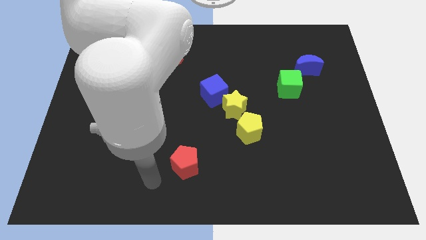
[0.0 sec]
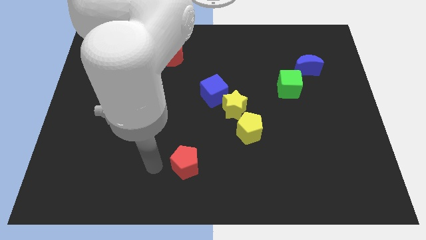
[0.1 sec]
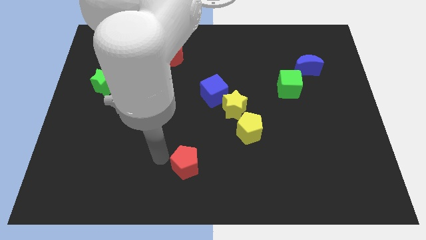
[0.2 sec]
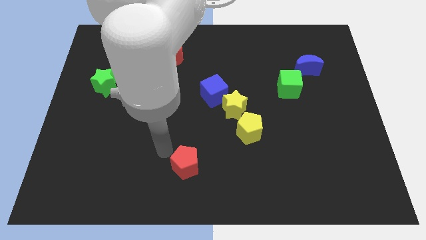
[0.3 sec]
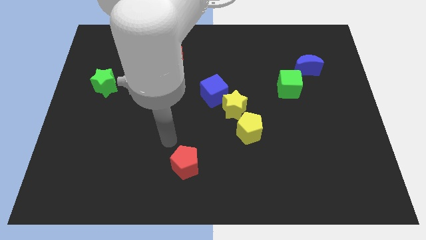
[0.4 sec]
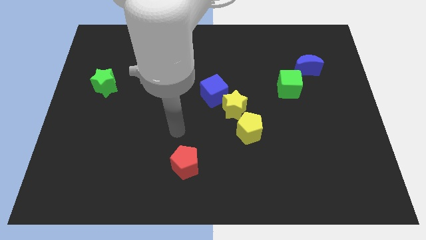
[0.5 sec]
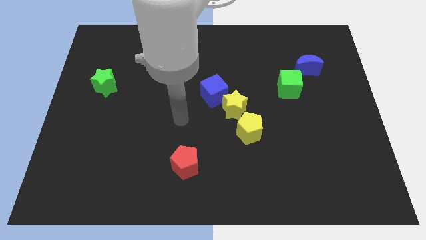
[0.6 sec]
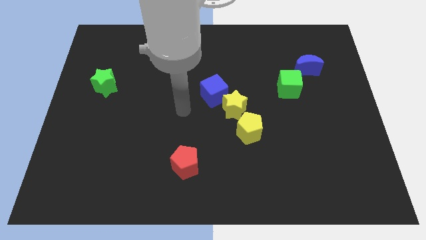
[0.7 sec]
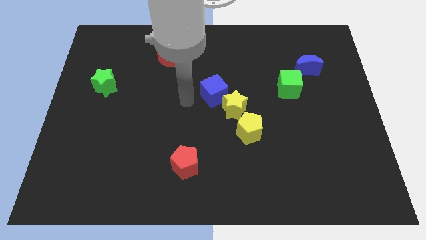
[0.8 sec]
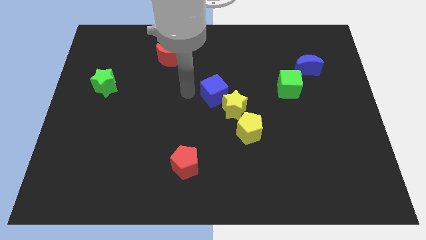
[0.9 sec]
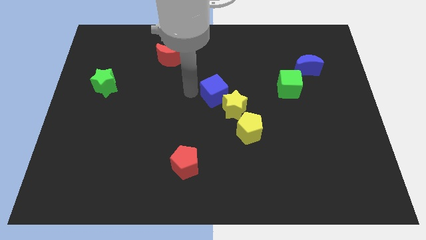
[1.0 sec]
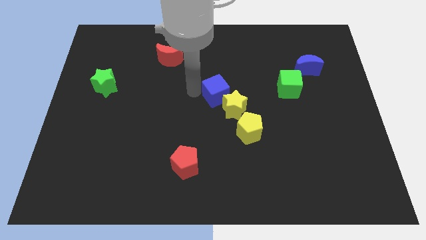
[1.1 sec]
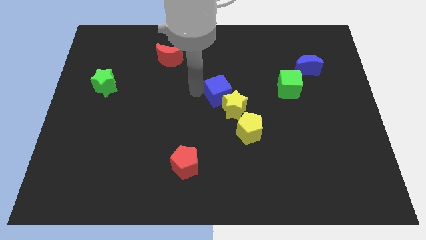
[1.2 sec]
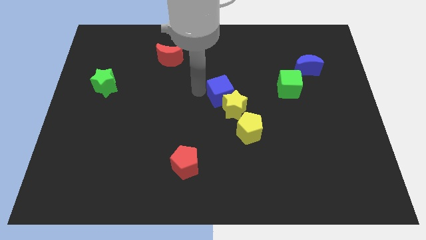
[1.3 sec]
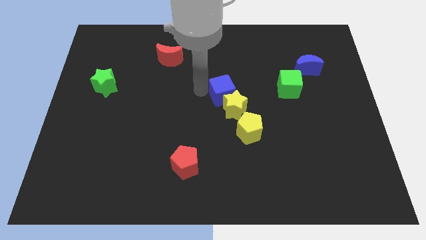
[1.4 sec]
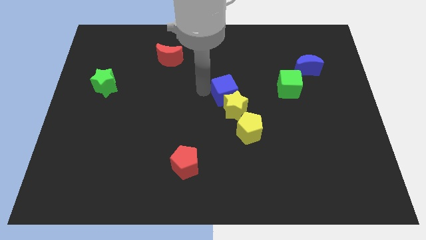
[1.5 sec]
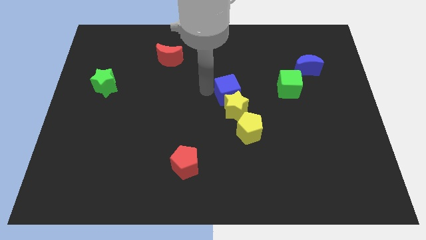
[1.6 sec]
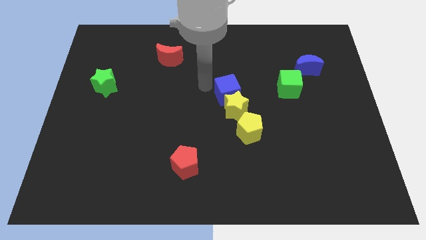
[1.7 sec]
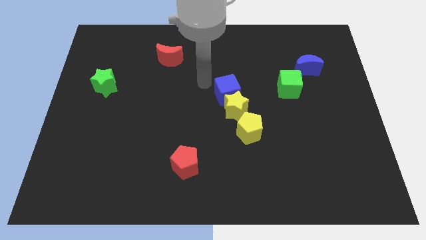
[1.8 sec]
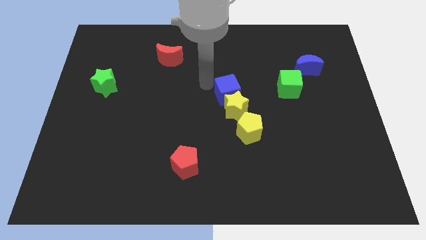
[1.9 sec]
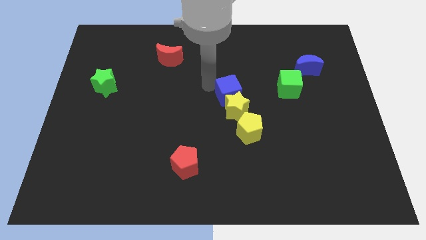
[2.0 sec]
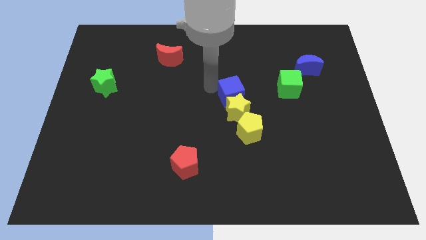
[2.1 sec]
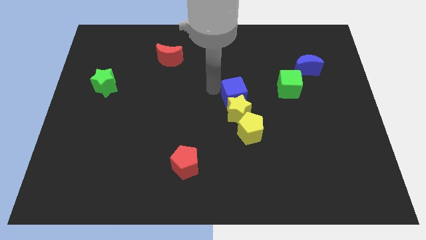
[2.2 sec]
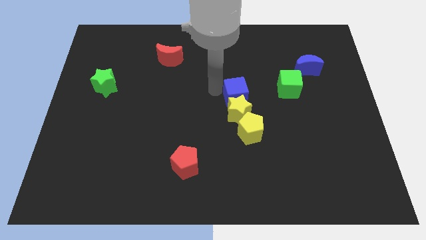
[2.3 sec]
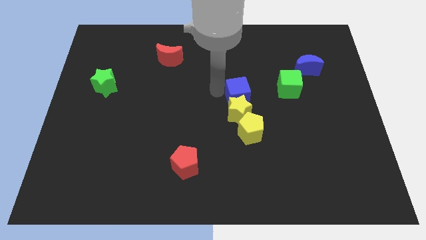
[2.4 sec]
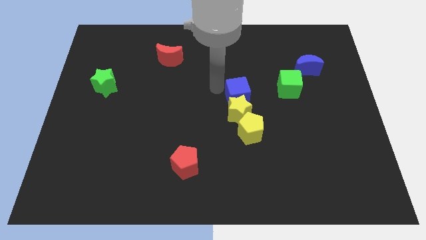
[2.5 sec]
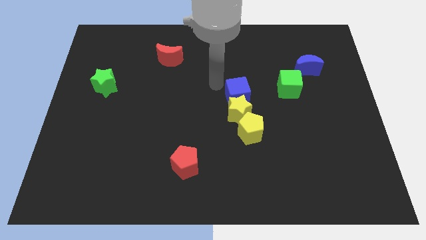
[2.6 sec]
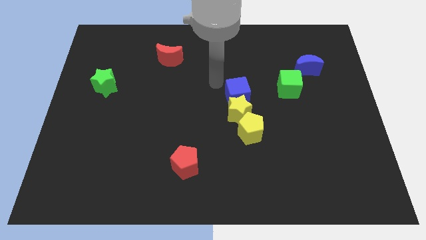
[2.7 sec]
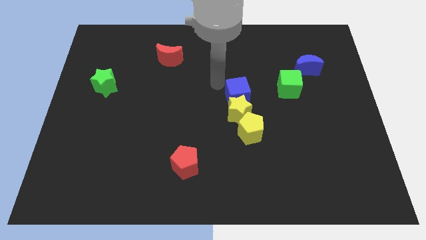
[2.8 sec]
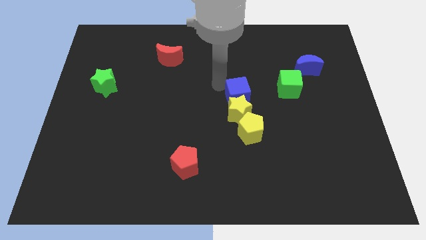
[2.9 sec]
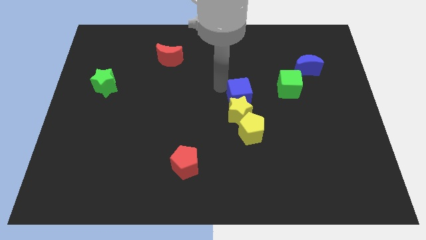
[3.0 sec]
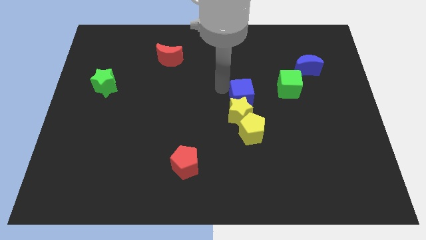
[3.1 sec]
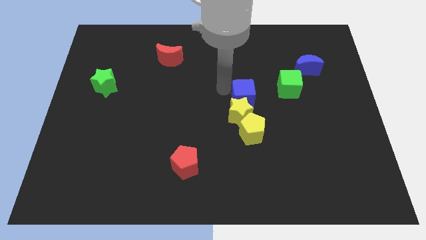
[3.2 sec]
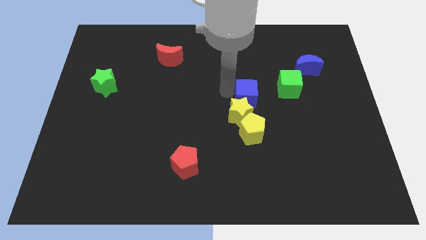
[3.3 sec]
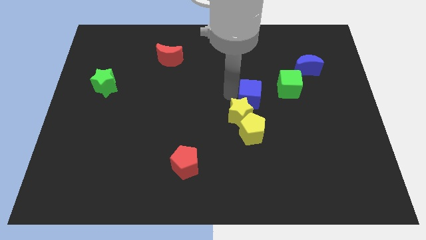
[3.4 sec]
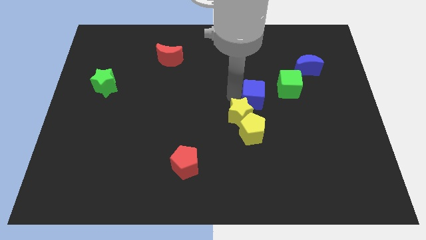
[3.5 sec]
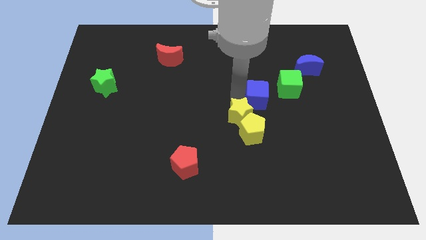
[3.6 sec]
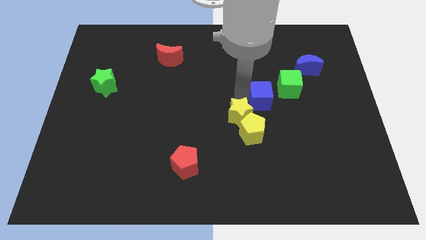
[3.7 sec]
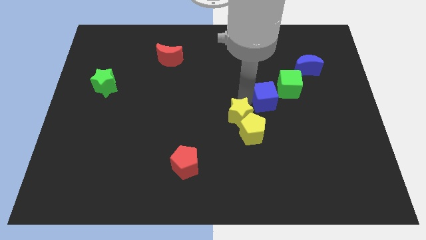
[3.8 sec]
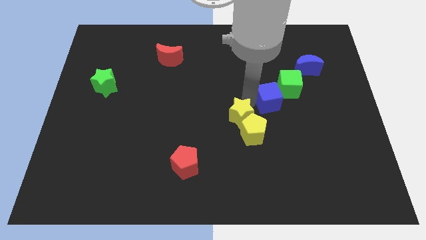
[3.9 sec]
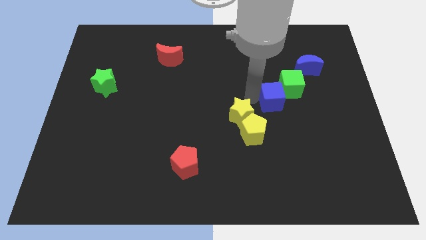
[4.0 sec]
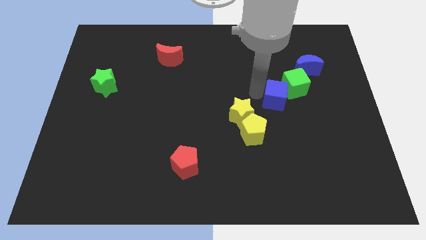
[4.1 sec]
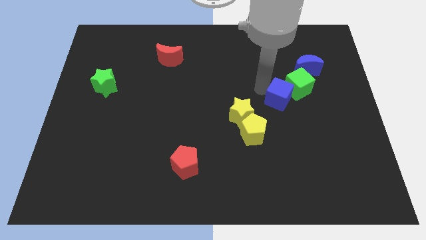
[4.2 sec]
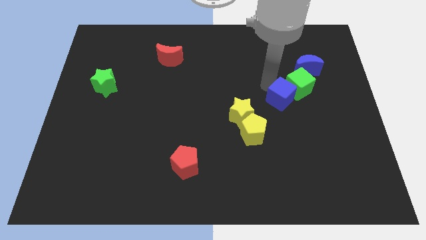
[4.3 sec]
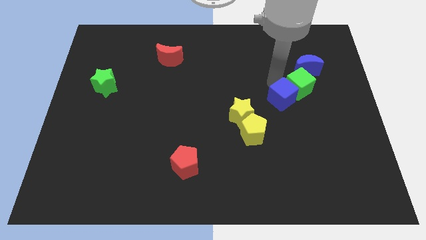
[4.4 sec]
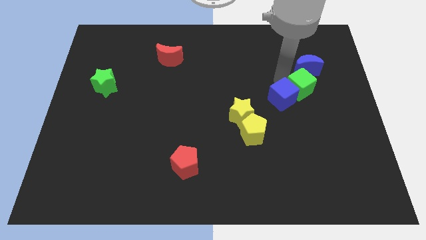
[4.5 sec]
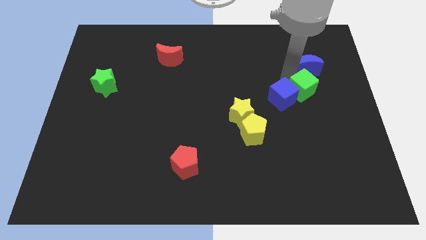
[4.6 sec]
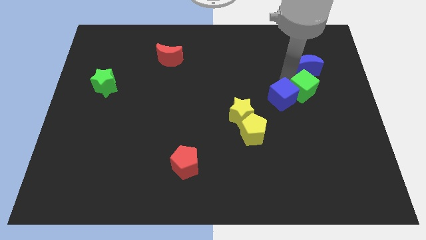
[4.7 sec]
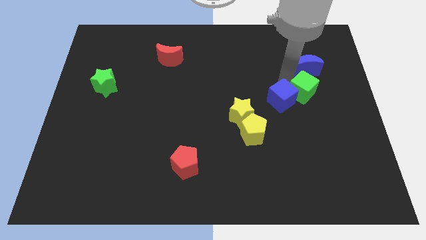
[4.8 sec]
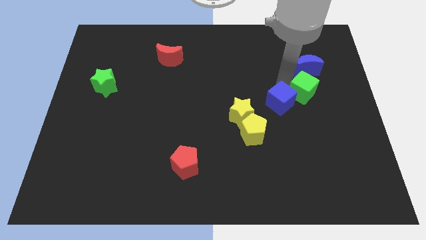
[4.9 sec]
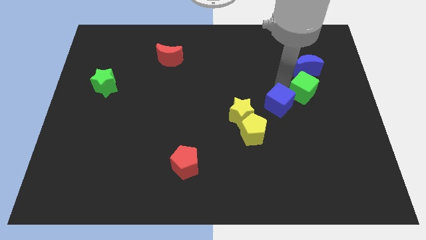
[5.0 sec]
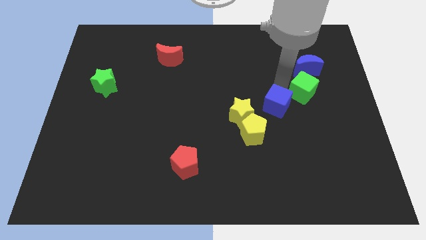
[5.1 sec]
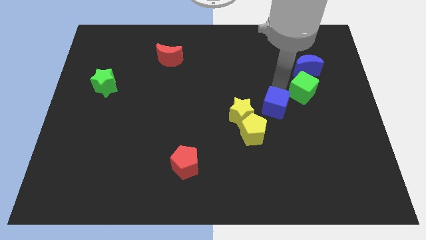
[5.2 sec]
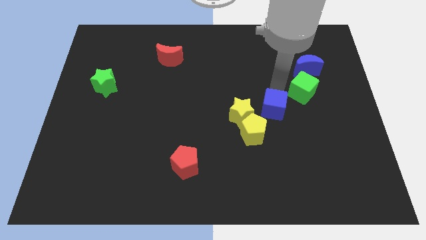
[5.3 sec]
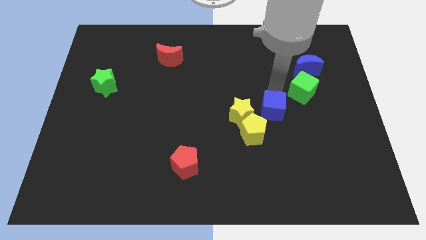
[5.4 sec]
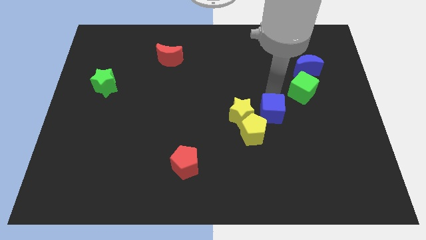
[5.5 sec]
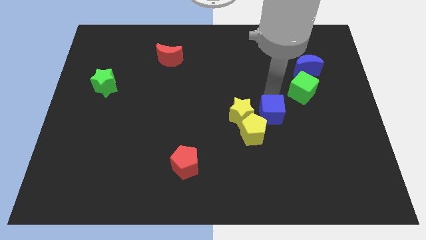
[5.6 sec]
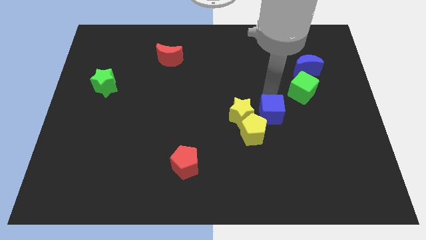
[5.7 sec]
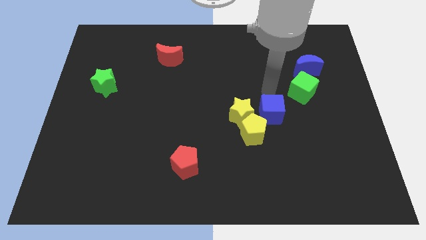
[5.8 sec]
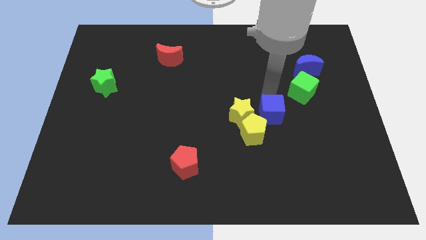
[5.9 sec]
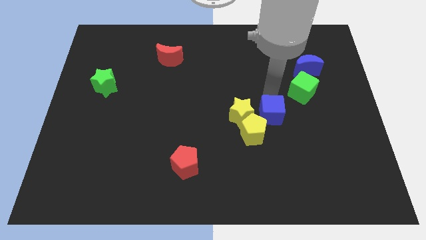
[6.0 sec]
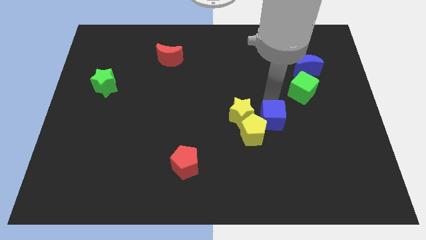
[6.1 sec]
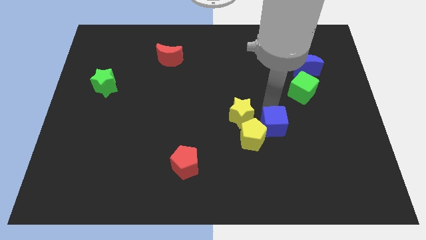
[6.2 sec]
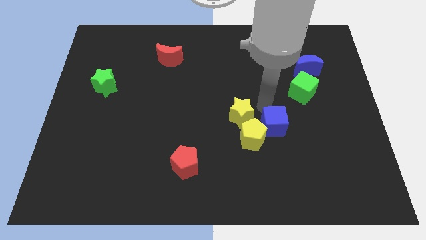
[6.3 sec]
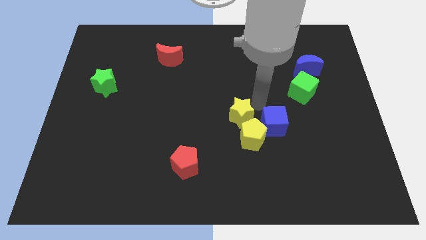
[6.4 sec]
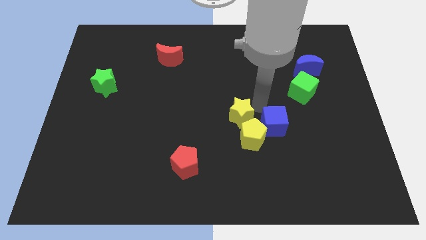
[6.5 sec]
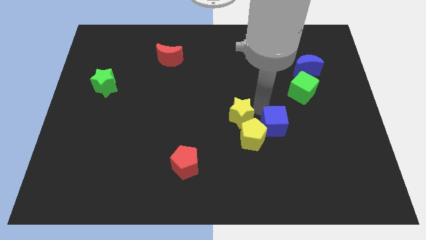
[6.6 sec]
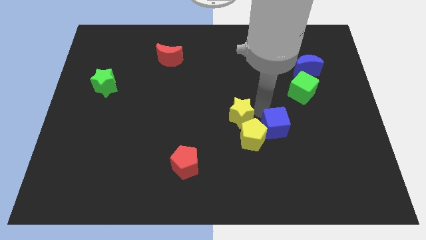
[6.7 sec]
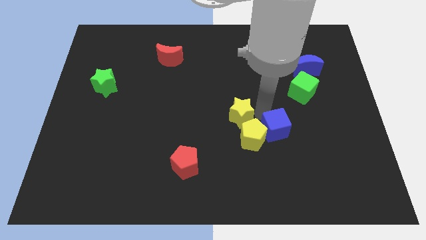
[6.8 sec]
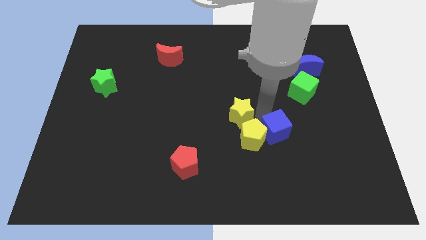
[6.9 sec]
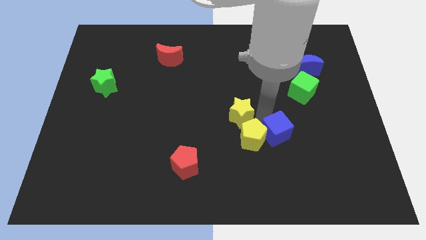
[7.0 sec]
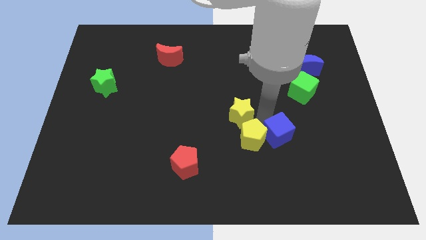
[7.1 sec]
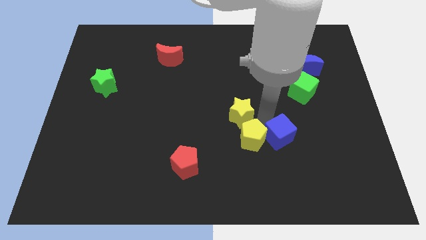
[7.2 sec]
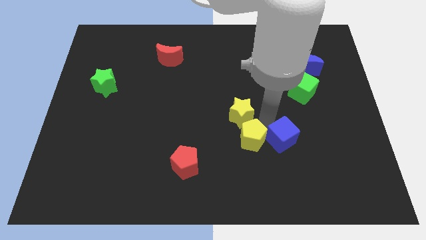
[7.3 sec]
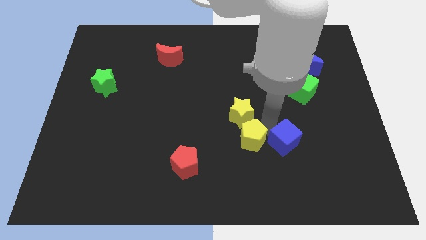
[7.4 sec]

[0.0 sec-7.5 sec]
slide the blue cube downwards and right diagonally

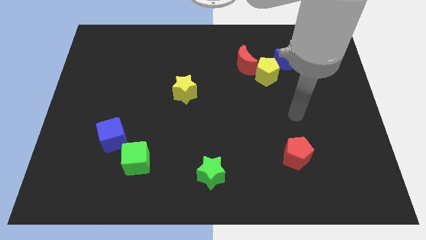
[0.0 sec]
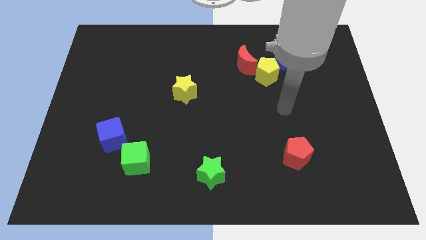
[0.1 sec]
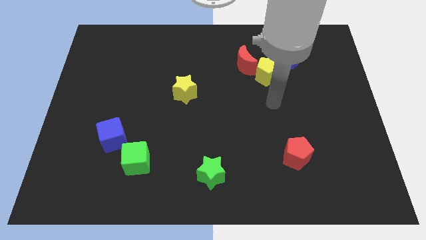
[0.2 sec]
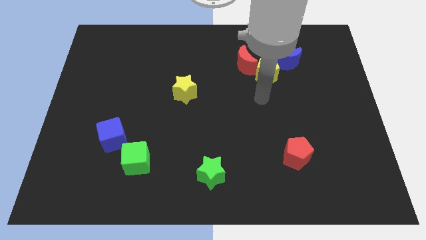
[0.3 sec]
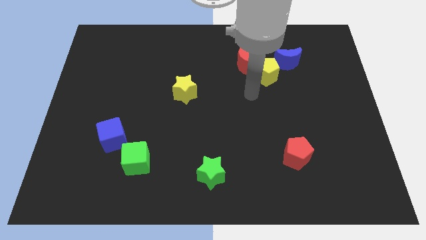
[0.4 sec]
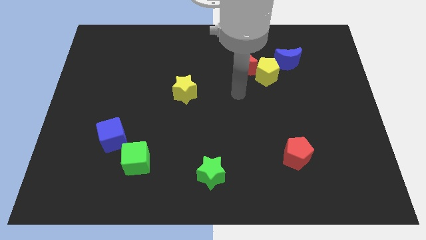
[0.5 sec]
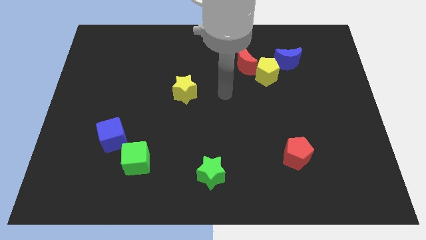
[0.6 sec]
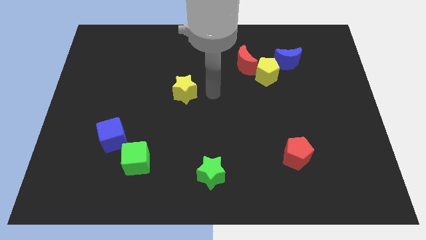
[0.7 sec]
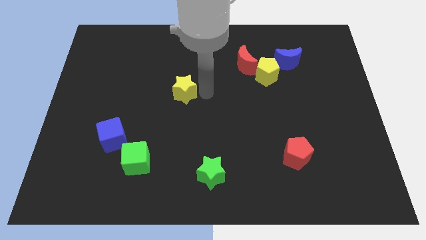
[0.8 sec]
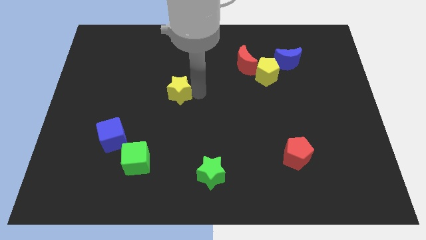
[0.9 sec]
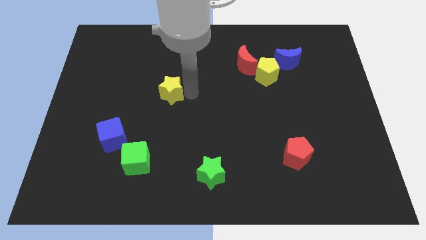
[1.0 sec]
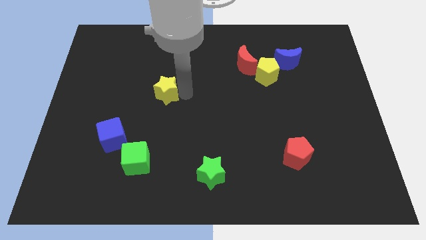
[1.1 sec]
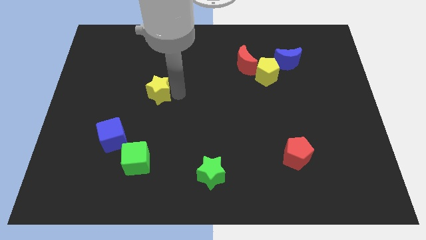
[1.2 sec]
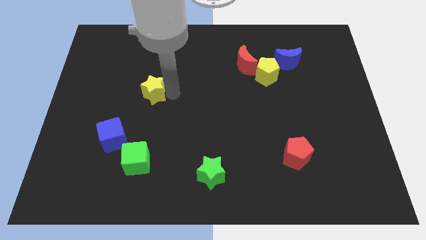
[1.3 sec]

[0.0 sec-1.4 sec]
push the yellow star a little to the left
